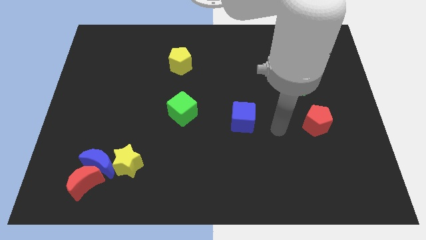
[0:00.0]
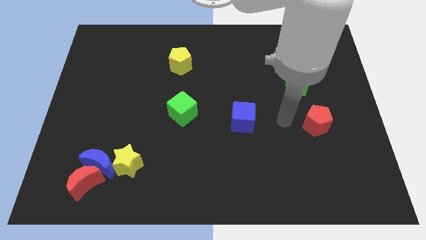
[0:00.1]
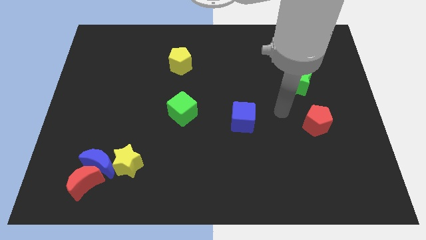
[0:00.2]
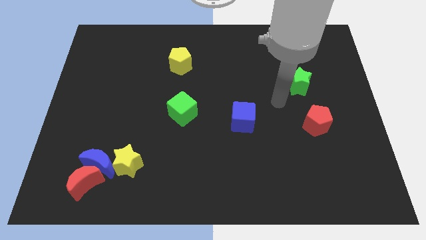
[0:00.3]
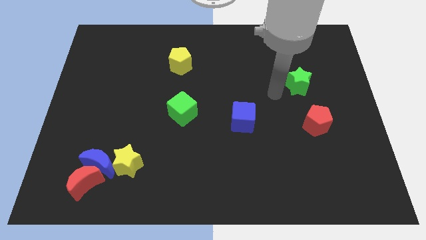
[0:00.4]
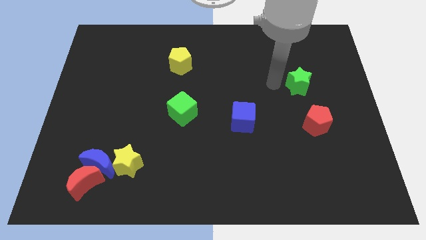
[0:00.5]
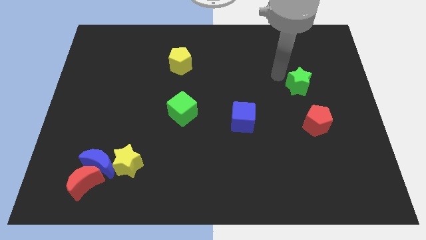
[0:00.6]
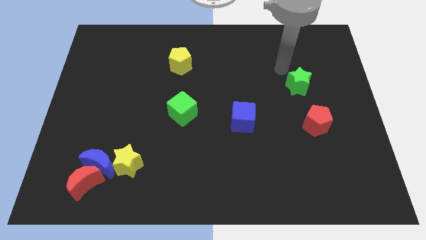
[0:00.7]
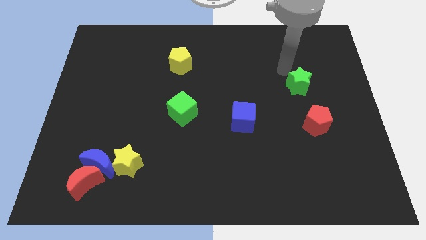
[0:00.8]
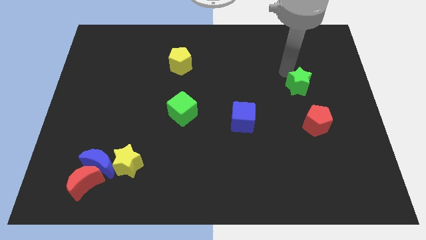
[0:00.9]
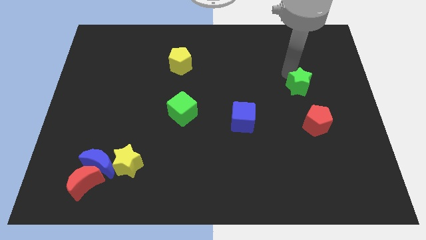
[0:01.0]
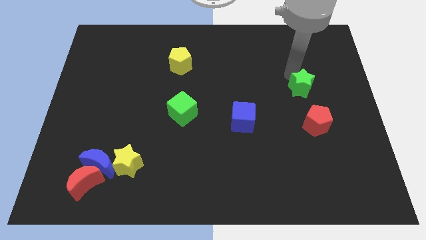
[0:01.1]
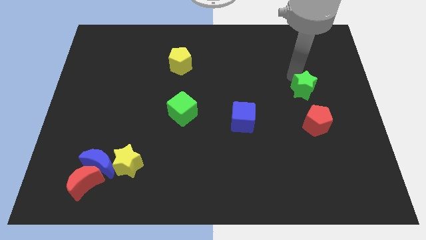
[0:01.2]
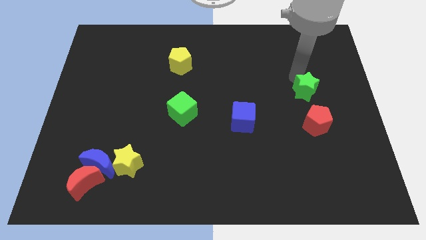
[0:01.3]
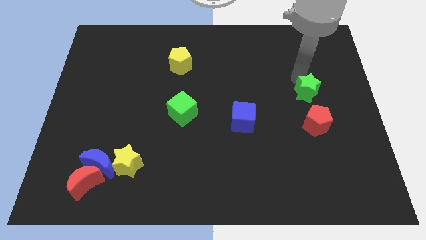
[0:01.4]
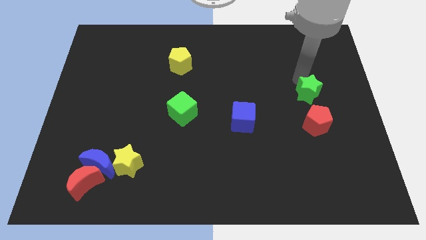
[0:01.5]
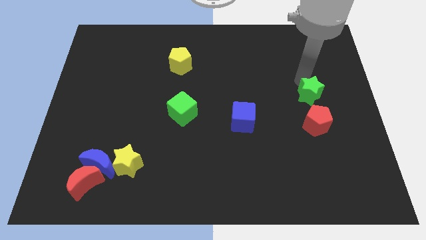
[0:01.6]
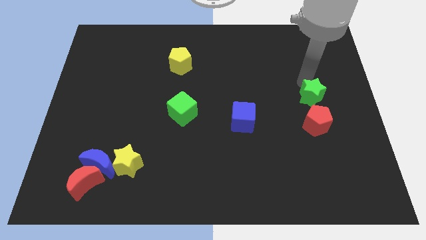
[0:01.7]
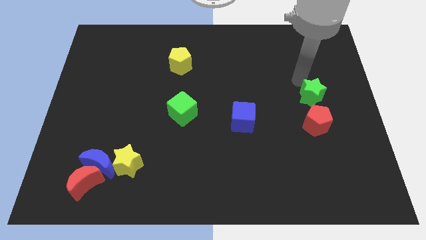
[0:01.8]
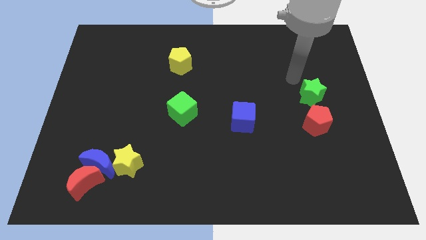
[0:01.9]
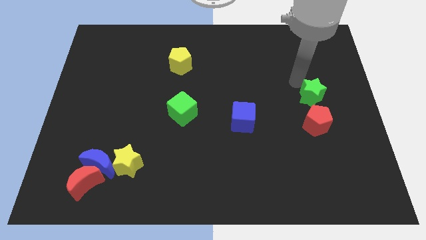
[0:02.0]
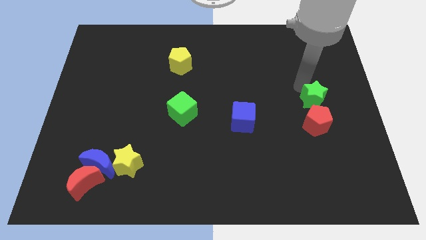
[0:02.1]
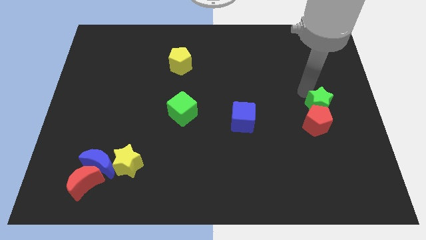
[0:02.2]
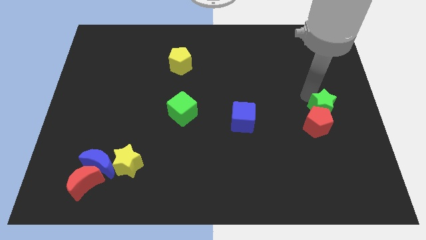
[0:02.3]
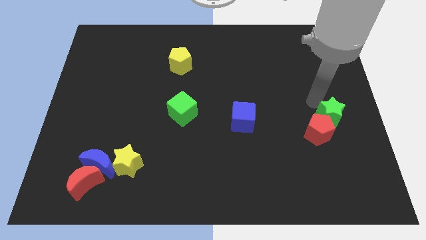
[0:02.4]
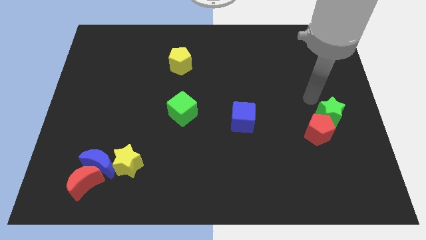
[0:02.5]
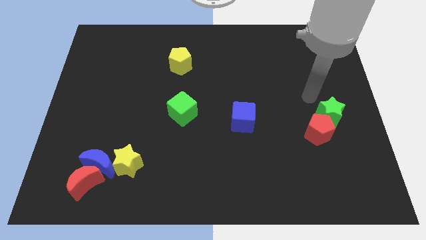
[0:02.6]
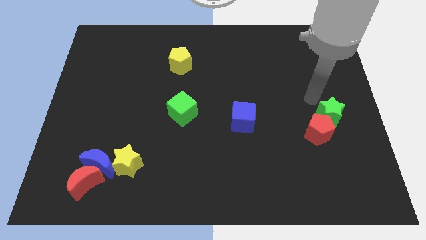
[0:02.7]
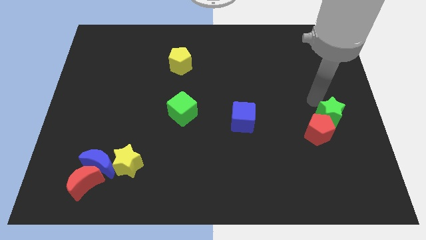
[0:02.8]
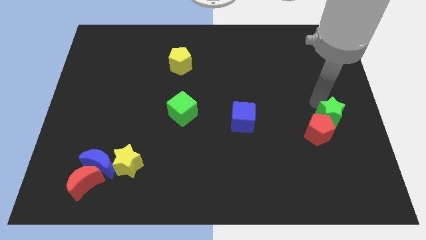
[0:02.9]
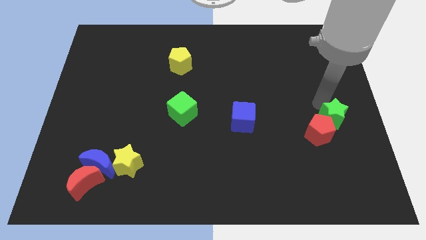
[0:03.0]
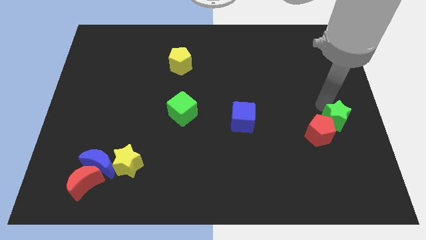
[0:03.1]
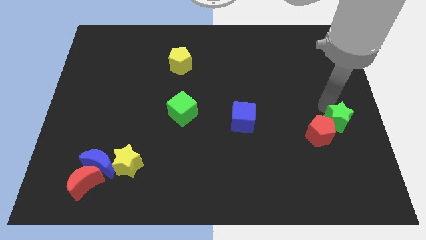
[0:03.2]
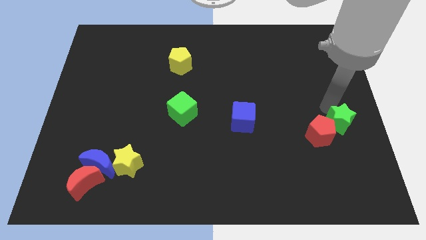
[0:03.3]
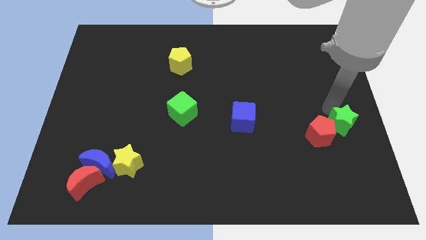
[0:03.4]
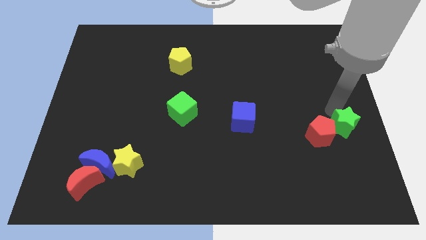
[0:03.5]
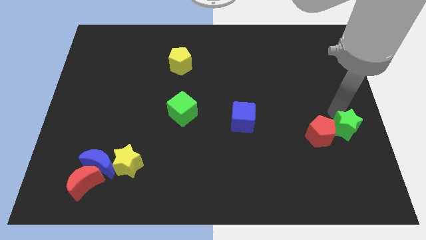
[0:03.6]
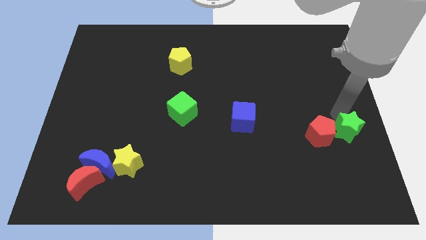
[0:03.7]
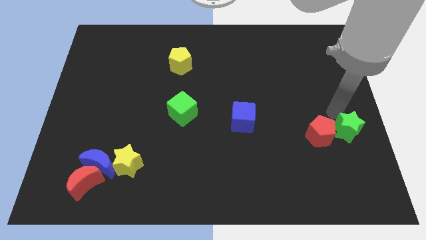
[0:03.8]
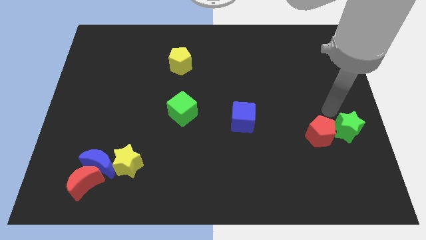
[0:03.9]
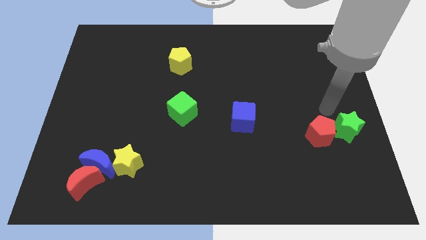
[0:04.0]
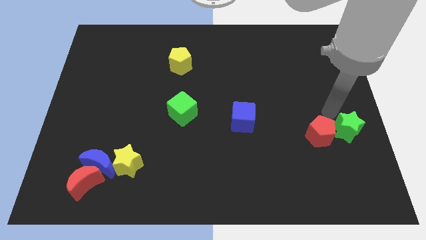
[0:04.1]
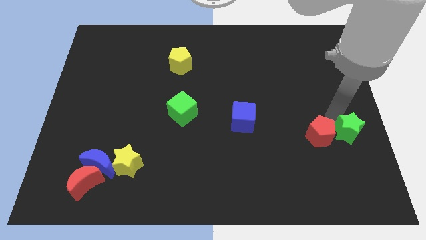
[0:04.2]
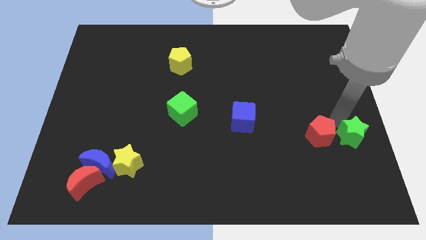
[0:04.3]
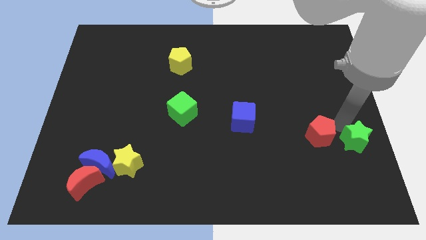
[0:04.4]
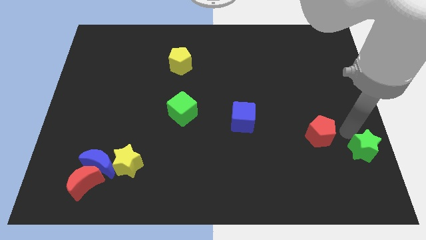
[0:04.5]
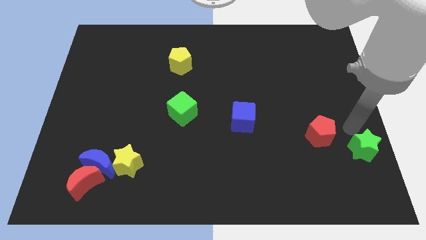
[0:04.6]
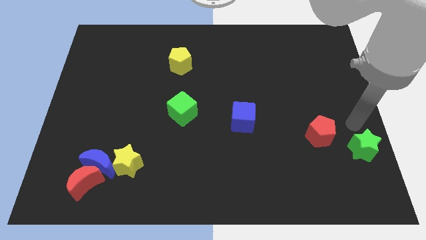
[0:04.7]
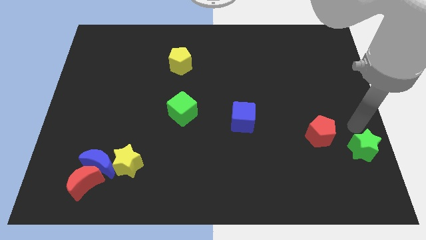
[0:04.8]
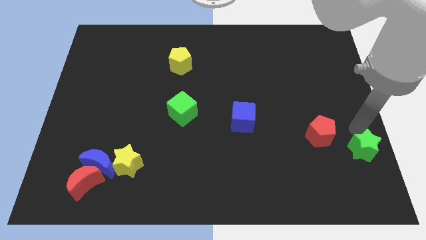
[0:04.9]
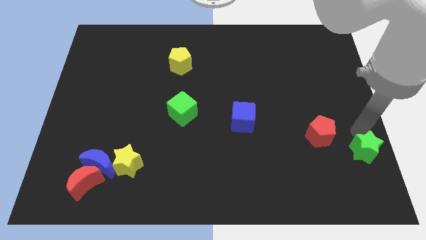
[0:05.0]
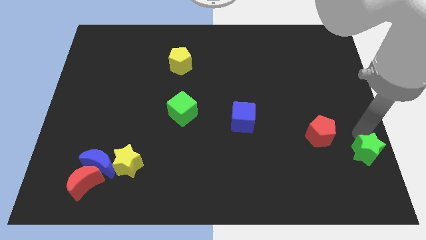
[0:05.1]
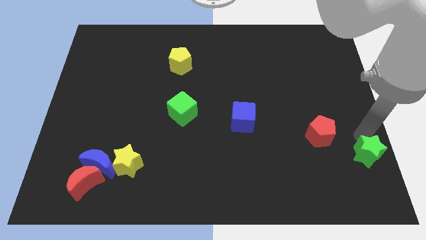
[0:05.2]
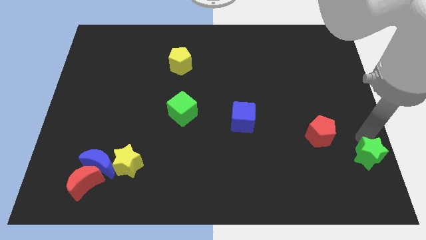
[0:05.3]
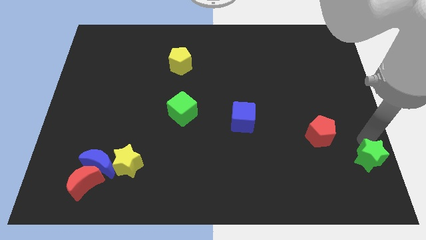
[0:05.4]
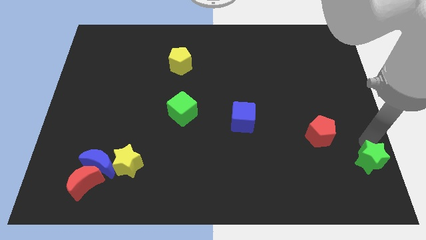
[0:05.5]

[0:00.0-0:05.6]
put the green star to the lower right corner

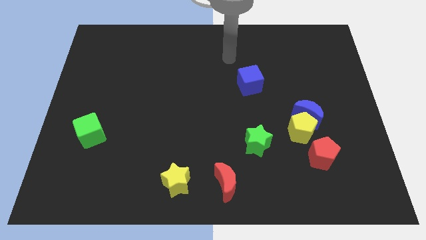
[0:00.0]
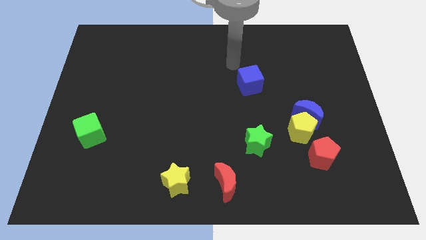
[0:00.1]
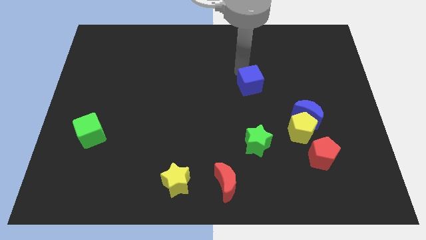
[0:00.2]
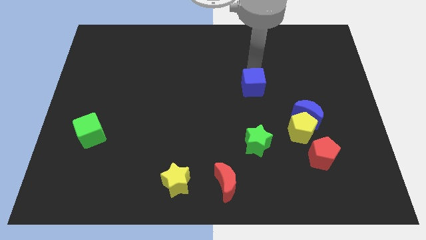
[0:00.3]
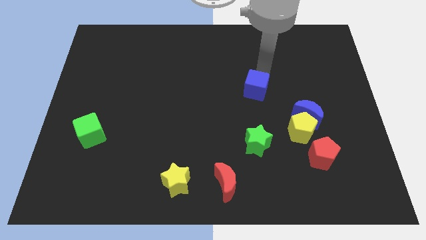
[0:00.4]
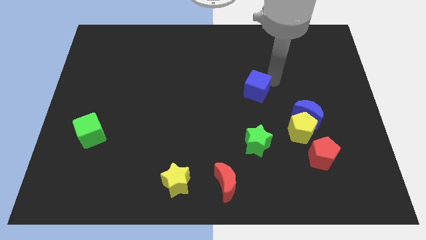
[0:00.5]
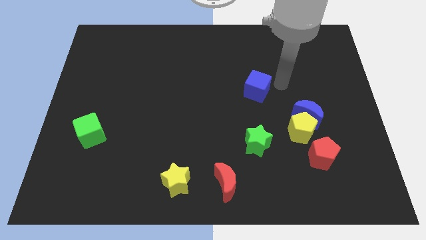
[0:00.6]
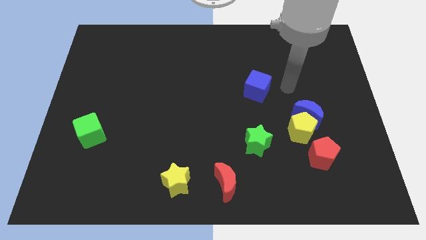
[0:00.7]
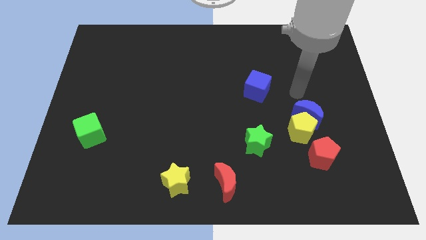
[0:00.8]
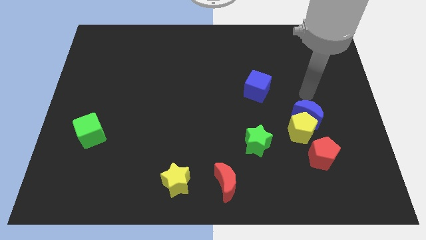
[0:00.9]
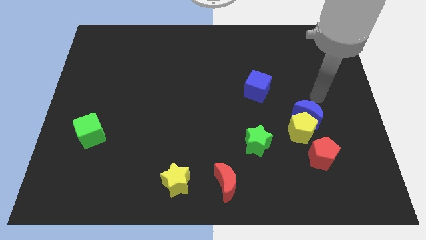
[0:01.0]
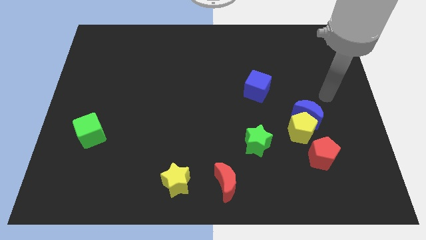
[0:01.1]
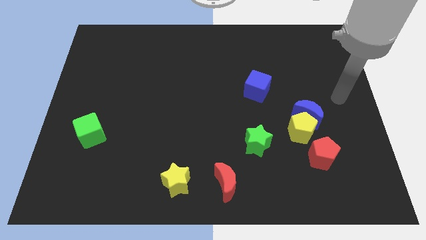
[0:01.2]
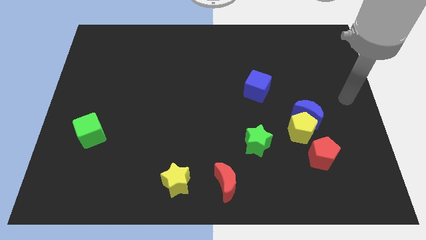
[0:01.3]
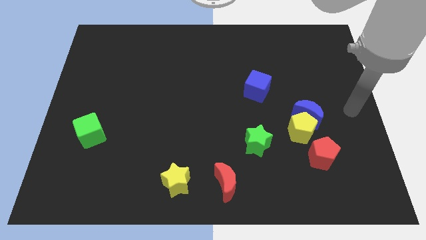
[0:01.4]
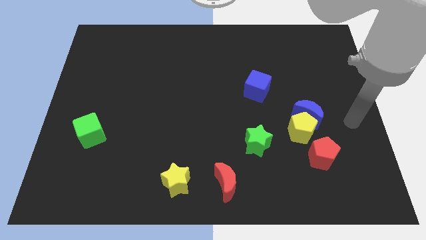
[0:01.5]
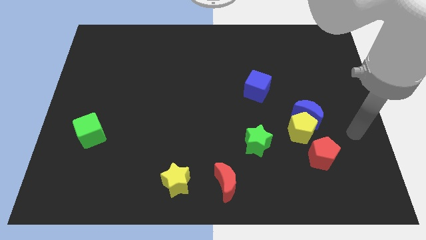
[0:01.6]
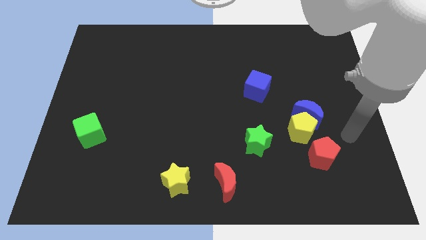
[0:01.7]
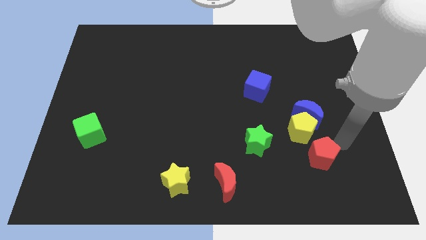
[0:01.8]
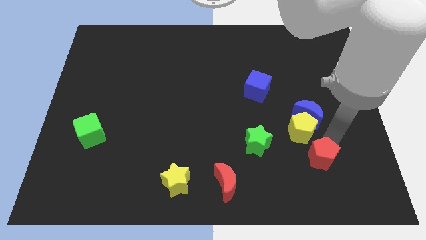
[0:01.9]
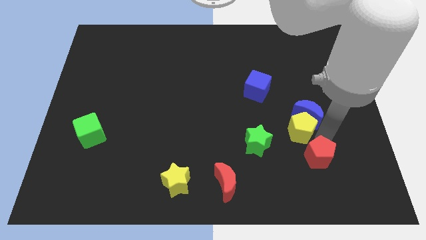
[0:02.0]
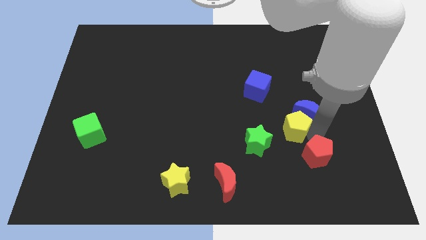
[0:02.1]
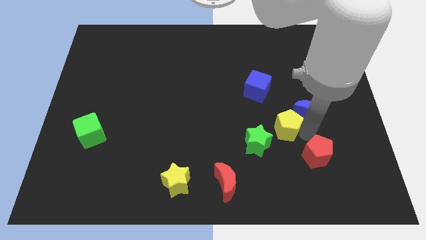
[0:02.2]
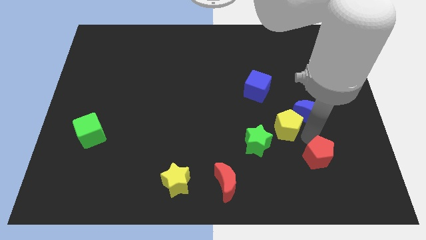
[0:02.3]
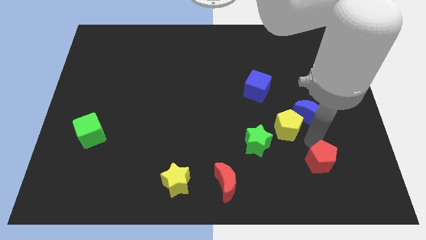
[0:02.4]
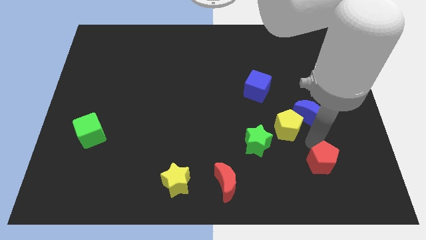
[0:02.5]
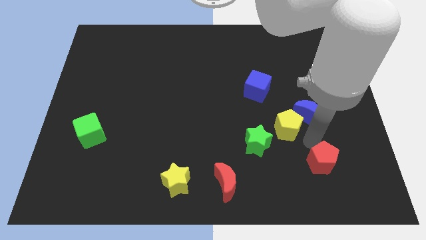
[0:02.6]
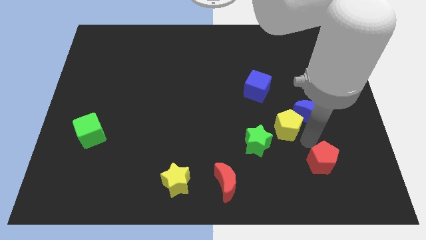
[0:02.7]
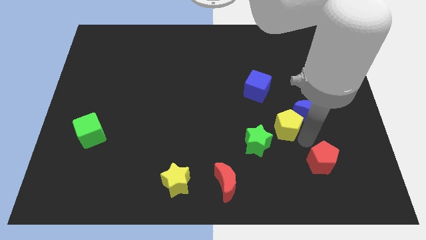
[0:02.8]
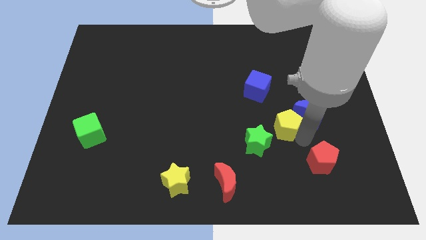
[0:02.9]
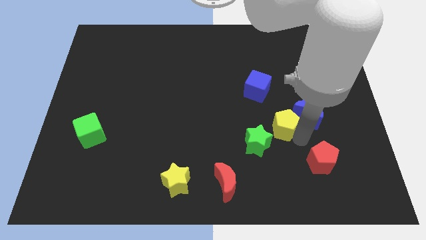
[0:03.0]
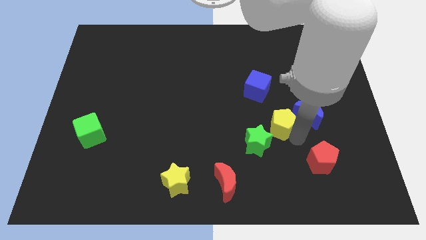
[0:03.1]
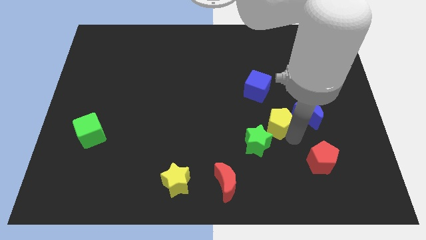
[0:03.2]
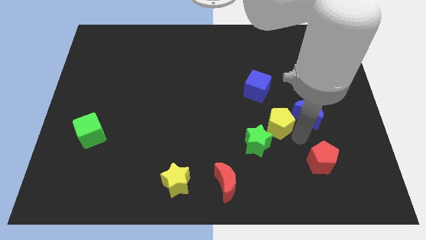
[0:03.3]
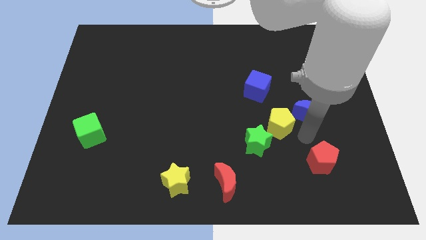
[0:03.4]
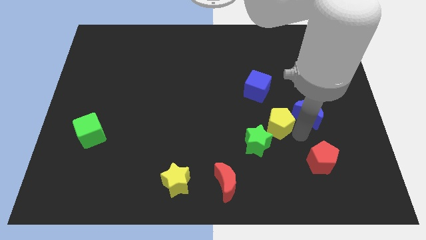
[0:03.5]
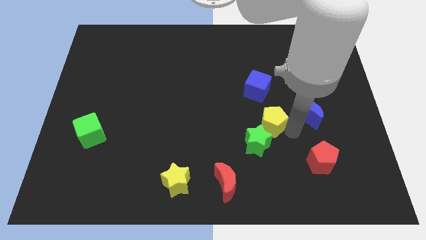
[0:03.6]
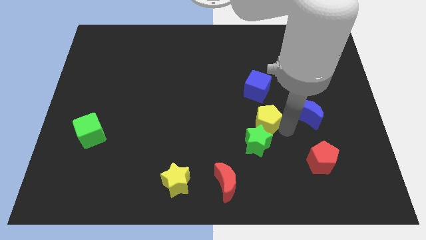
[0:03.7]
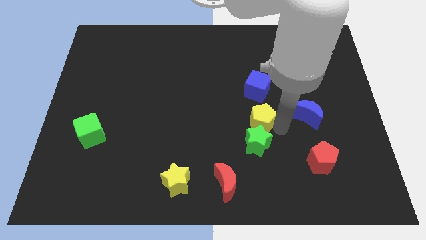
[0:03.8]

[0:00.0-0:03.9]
push the yellow pentagon to the center of the board
